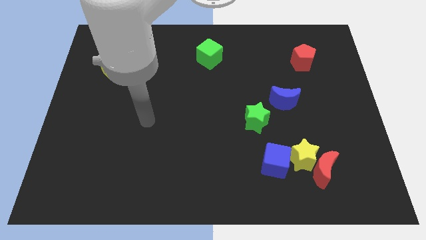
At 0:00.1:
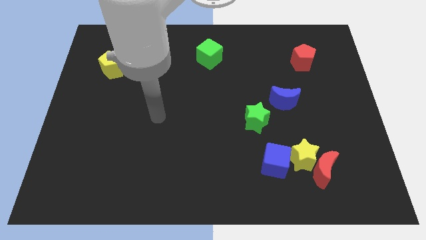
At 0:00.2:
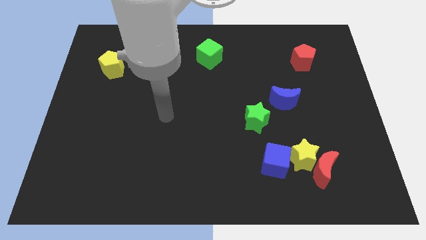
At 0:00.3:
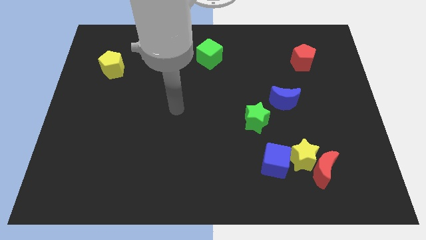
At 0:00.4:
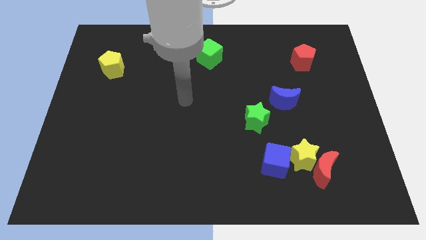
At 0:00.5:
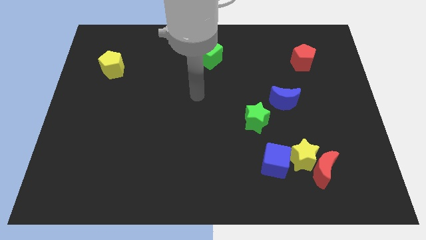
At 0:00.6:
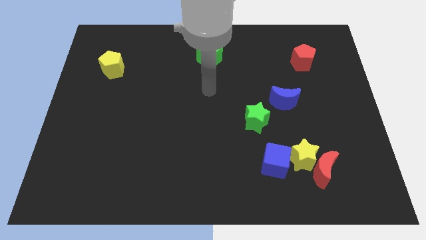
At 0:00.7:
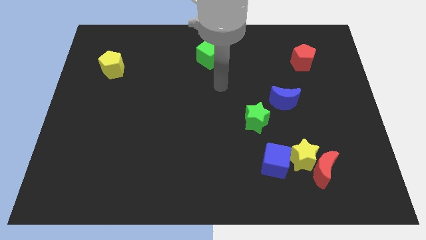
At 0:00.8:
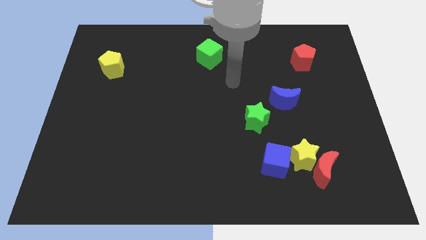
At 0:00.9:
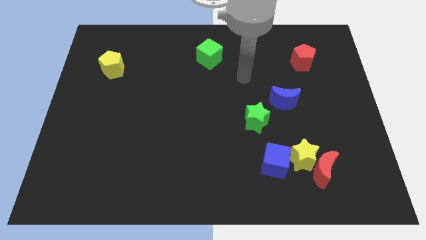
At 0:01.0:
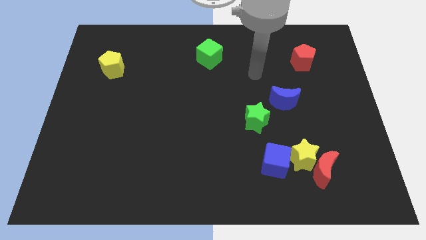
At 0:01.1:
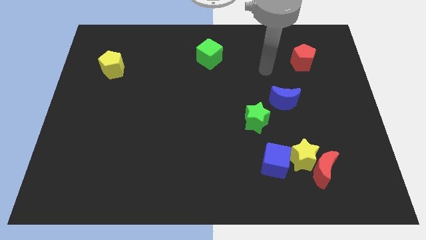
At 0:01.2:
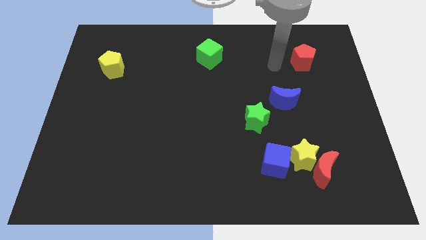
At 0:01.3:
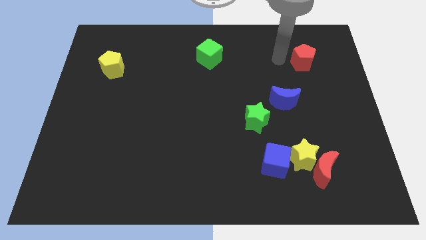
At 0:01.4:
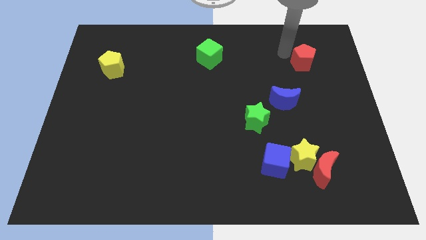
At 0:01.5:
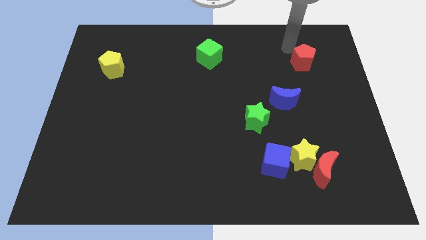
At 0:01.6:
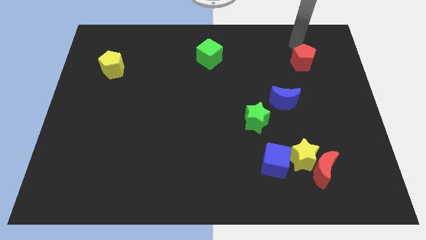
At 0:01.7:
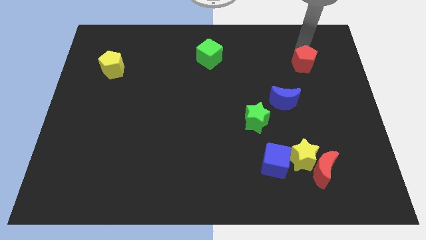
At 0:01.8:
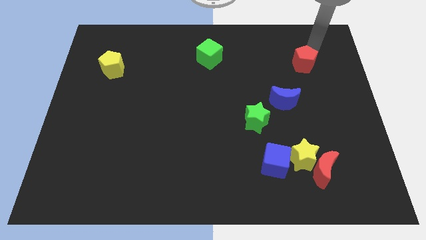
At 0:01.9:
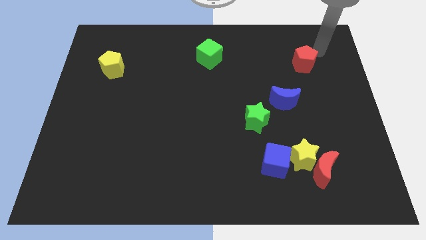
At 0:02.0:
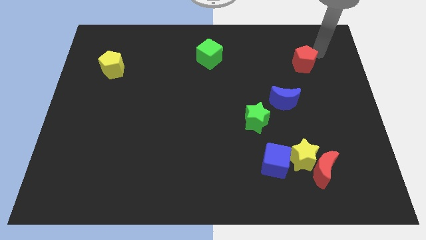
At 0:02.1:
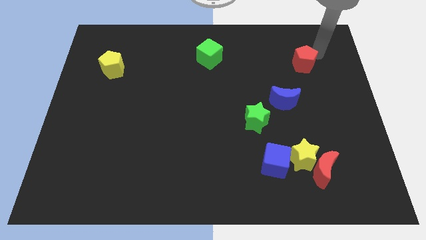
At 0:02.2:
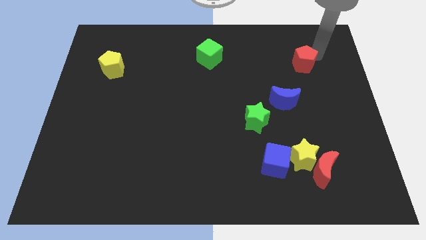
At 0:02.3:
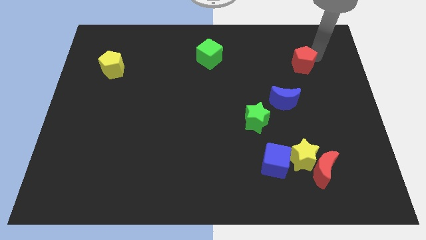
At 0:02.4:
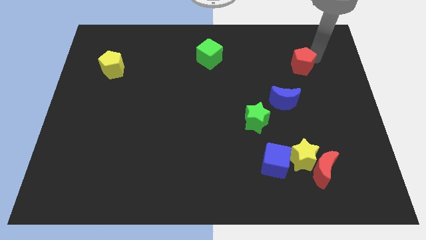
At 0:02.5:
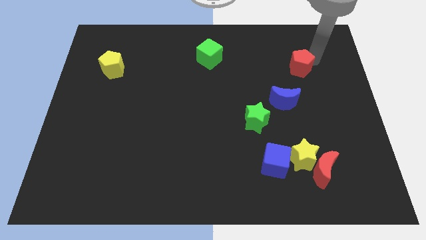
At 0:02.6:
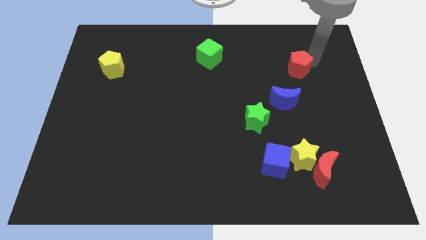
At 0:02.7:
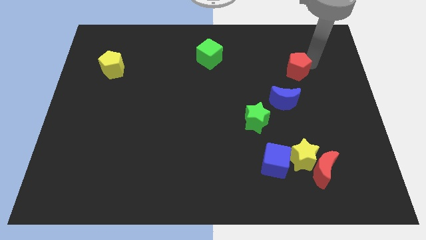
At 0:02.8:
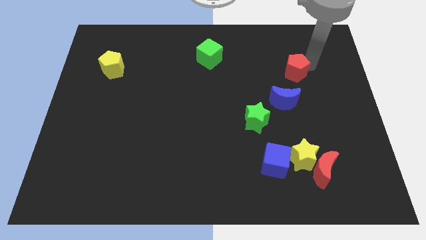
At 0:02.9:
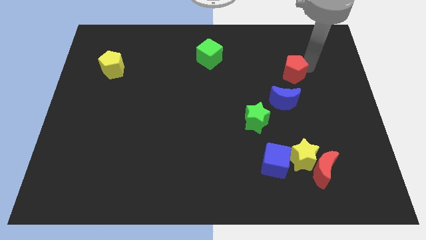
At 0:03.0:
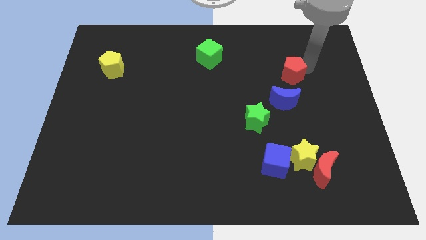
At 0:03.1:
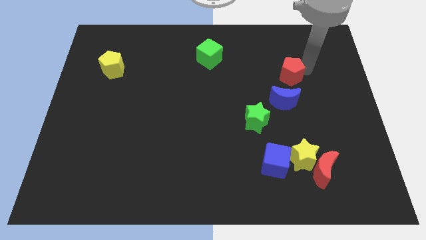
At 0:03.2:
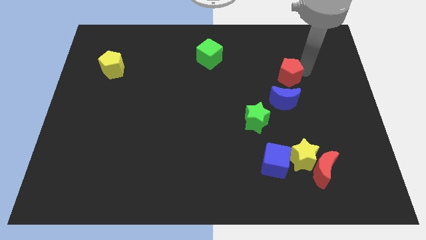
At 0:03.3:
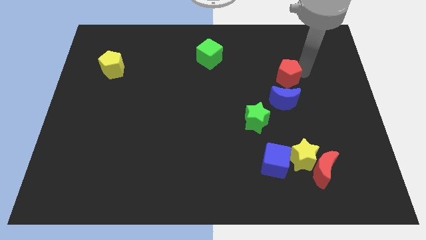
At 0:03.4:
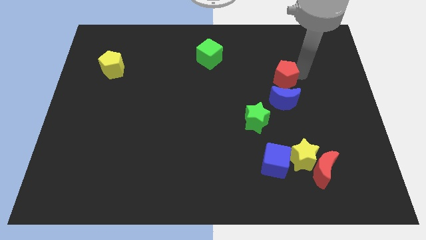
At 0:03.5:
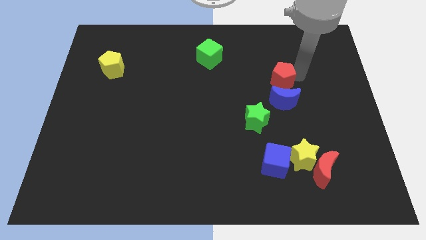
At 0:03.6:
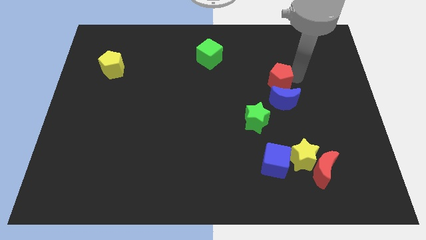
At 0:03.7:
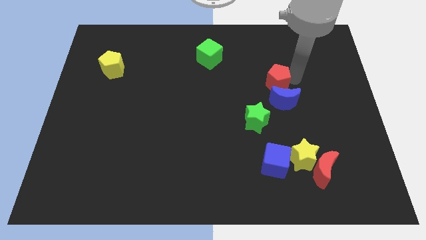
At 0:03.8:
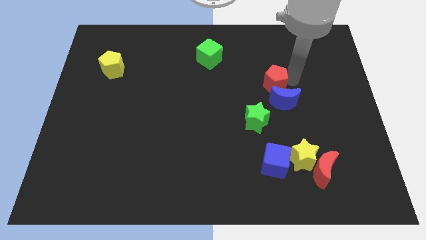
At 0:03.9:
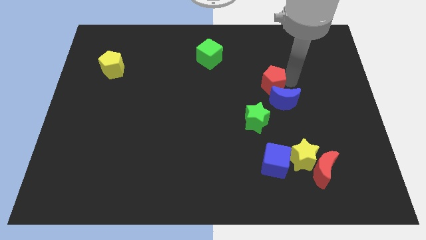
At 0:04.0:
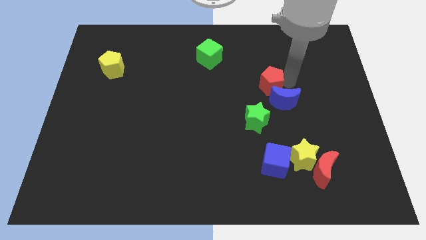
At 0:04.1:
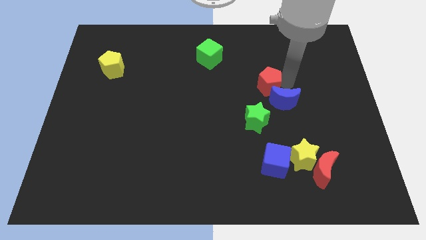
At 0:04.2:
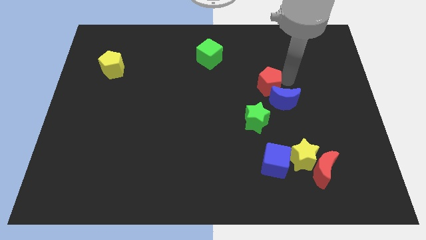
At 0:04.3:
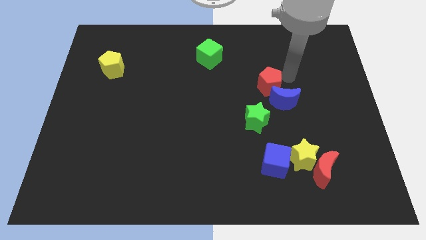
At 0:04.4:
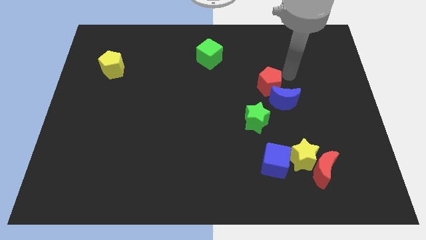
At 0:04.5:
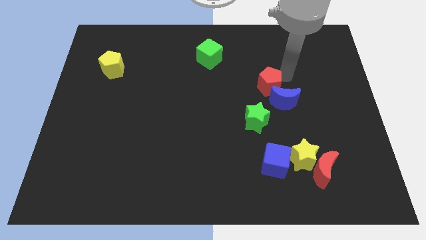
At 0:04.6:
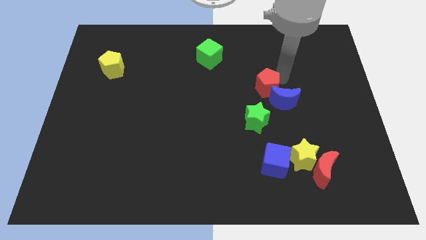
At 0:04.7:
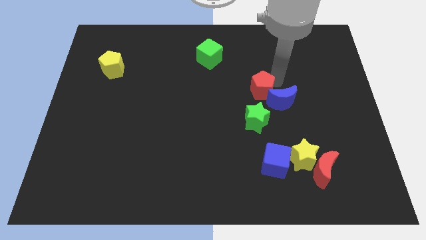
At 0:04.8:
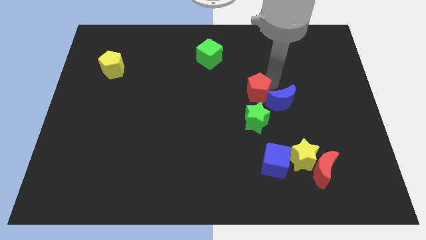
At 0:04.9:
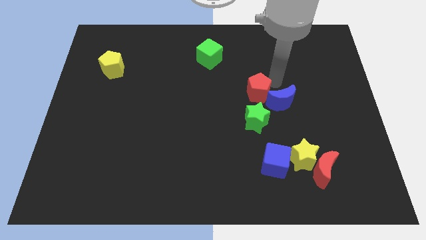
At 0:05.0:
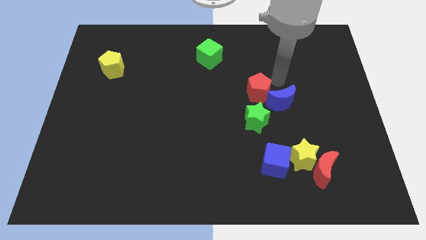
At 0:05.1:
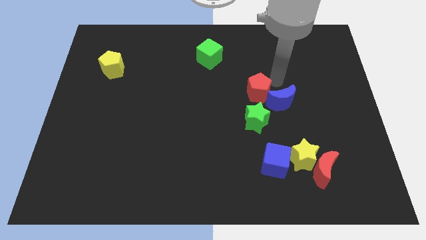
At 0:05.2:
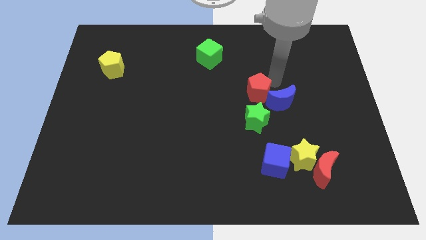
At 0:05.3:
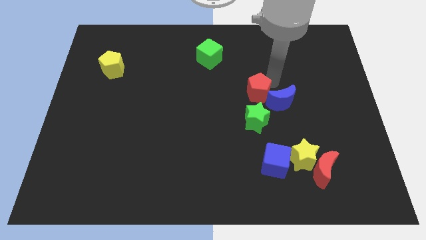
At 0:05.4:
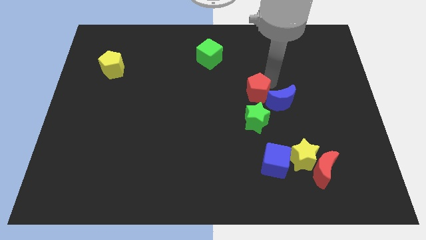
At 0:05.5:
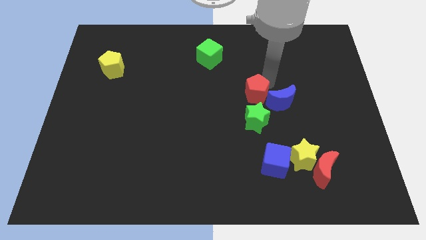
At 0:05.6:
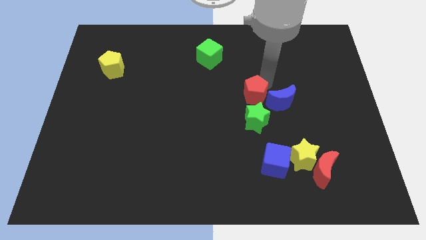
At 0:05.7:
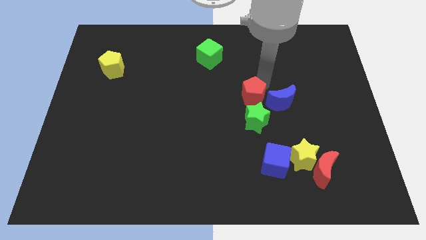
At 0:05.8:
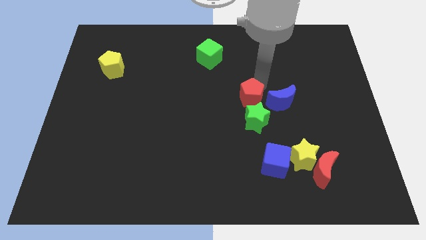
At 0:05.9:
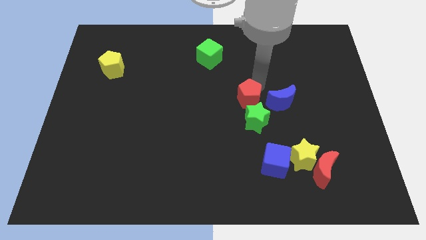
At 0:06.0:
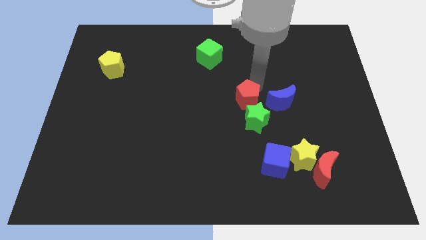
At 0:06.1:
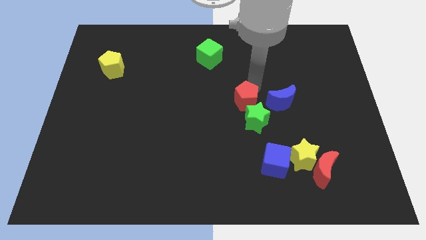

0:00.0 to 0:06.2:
slide the red pentagon down and then left

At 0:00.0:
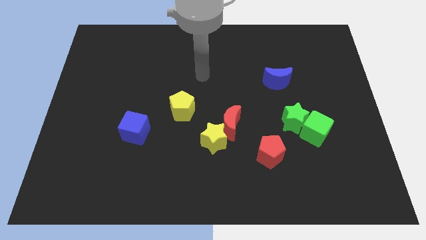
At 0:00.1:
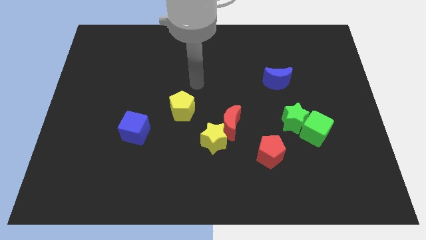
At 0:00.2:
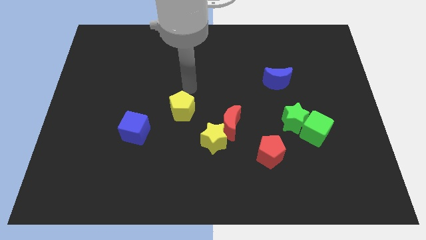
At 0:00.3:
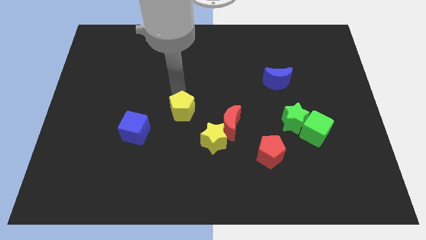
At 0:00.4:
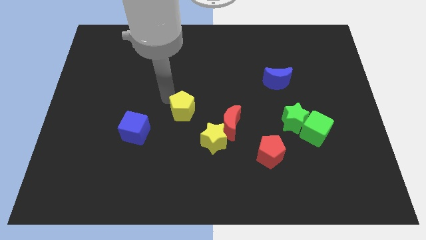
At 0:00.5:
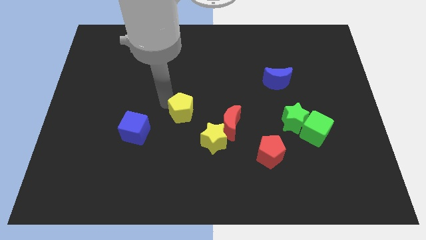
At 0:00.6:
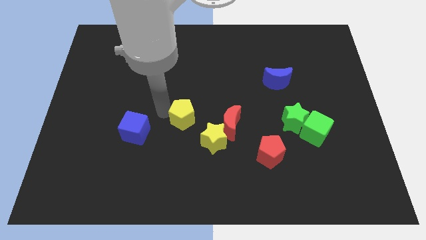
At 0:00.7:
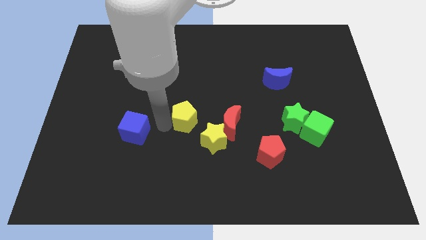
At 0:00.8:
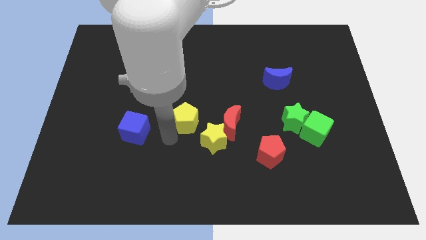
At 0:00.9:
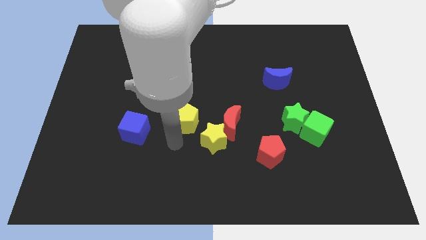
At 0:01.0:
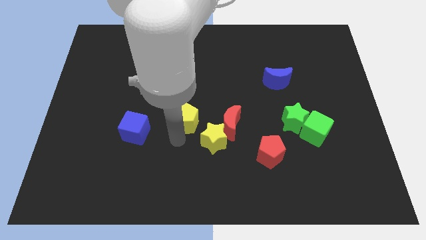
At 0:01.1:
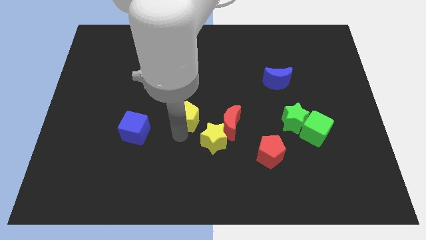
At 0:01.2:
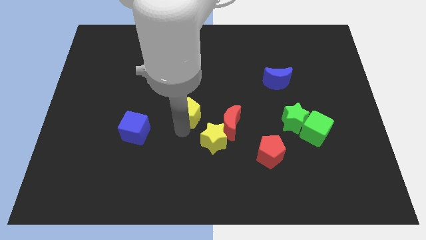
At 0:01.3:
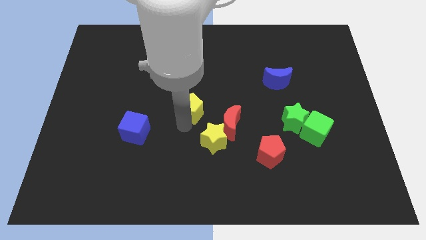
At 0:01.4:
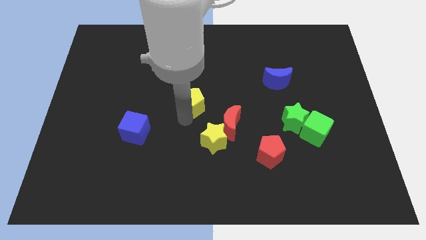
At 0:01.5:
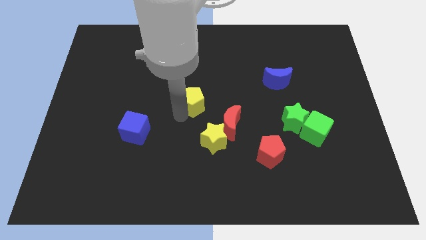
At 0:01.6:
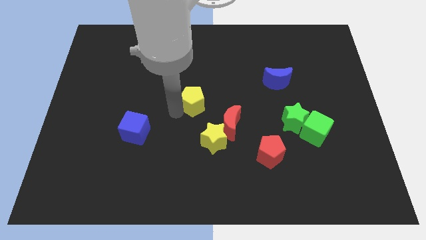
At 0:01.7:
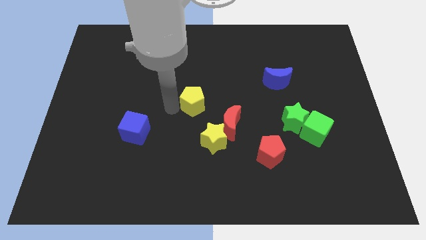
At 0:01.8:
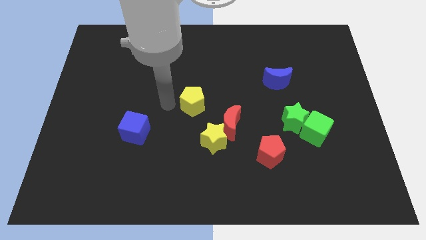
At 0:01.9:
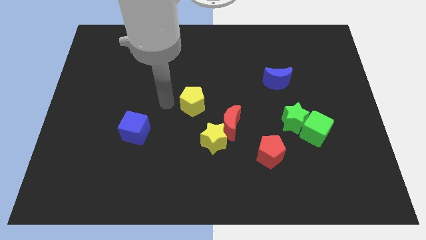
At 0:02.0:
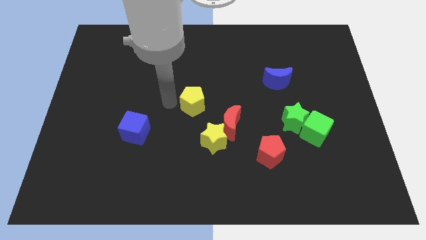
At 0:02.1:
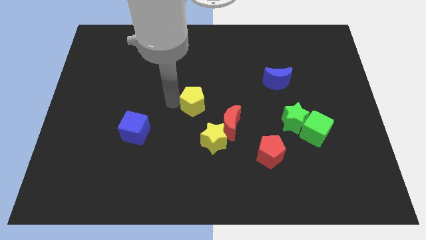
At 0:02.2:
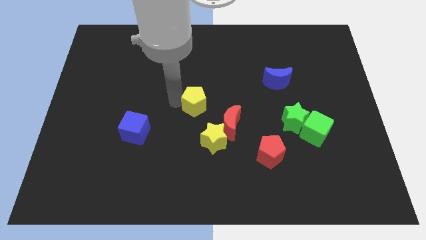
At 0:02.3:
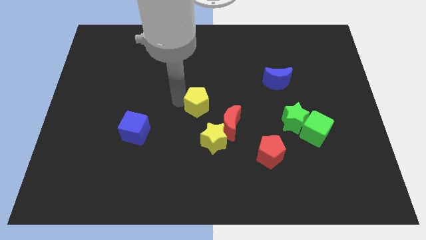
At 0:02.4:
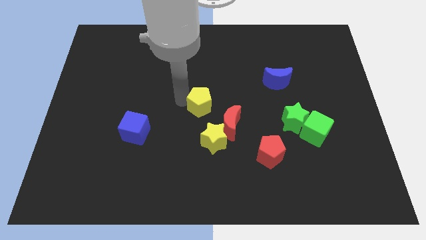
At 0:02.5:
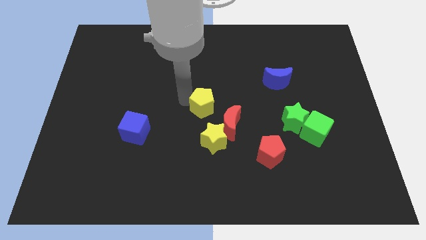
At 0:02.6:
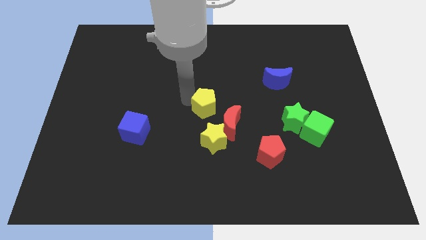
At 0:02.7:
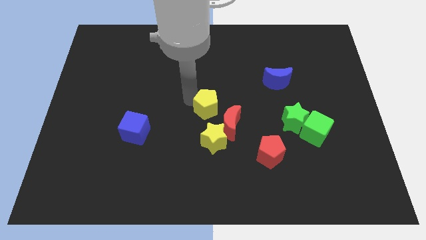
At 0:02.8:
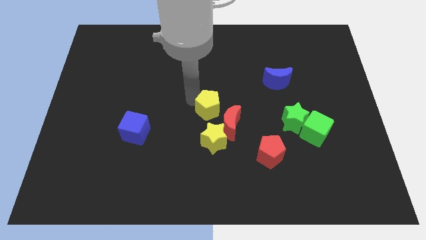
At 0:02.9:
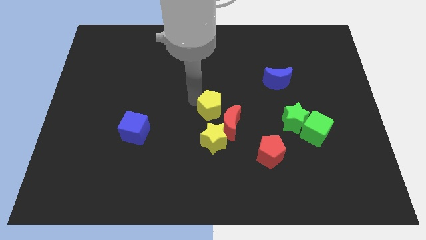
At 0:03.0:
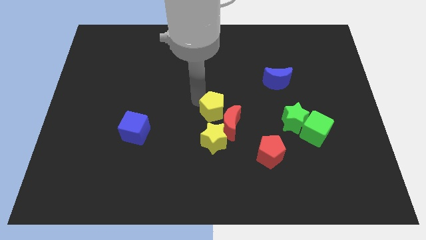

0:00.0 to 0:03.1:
slide the yellow pentagon to the right a little
